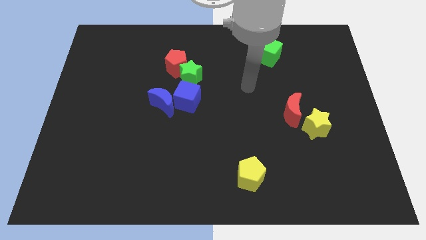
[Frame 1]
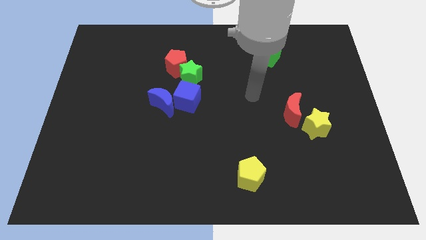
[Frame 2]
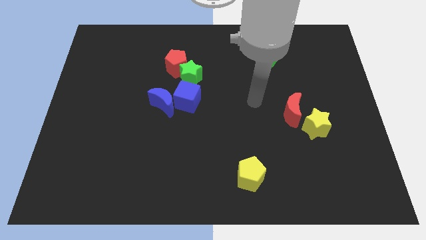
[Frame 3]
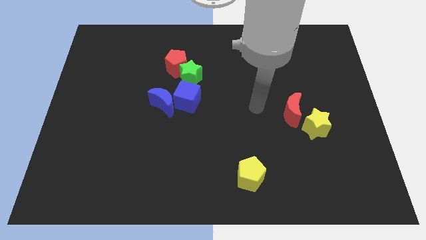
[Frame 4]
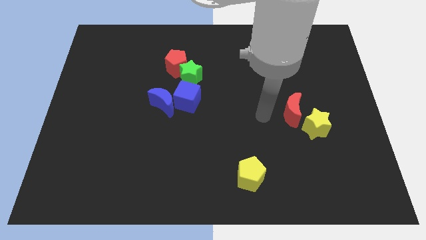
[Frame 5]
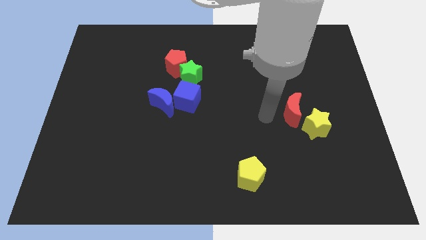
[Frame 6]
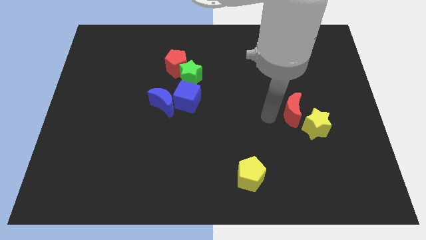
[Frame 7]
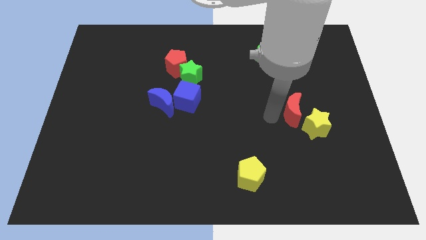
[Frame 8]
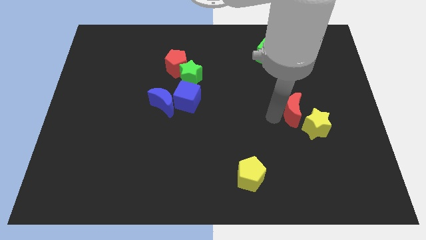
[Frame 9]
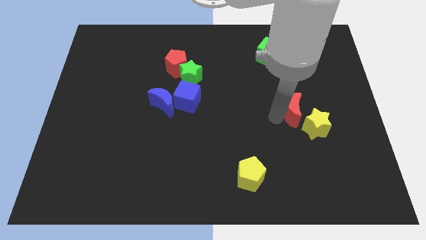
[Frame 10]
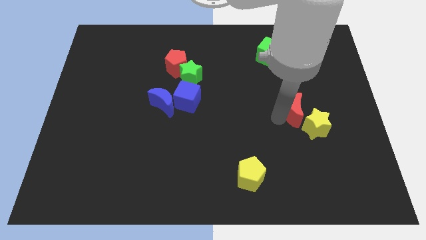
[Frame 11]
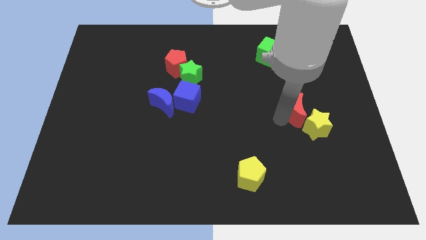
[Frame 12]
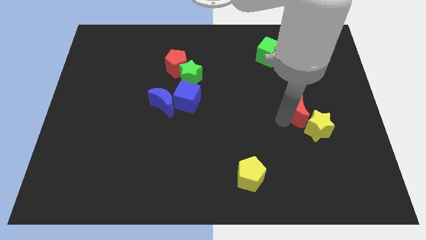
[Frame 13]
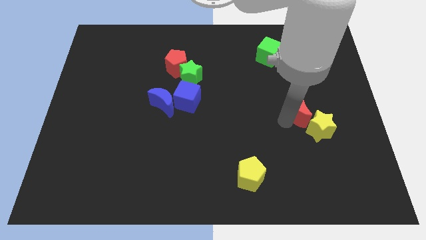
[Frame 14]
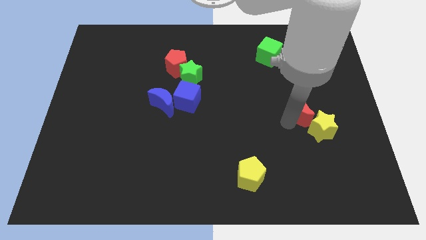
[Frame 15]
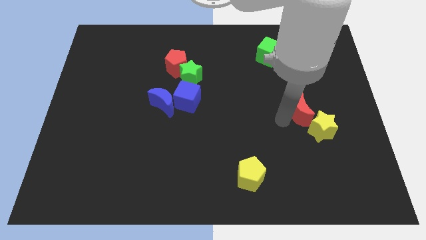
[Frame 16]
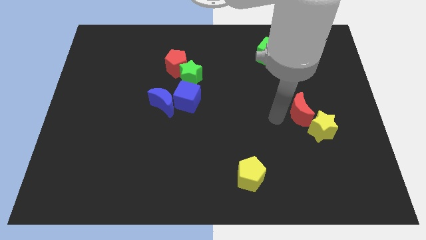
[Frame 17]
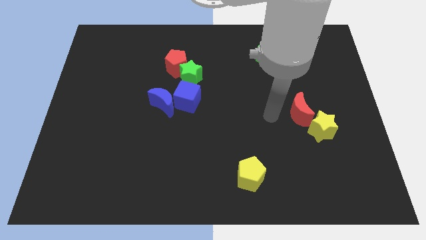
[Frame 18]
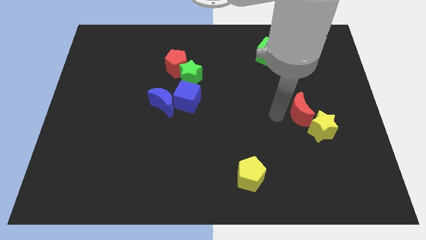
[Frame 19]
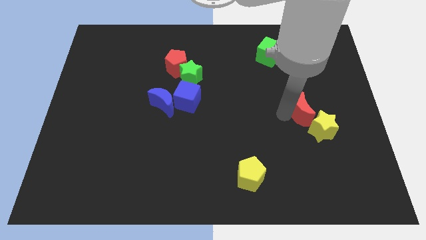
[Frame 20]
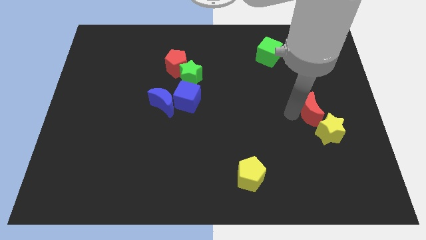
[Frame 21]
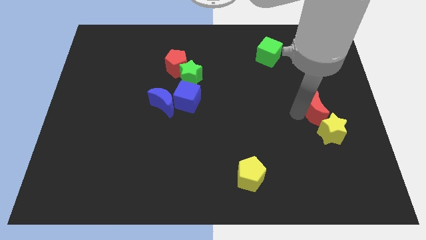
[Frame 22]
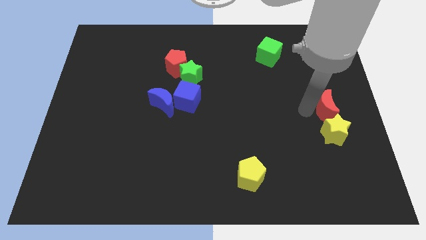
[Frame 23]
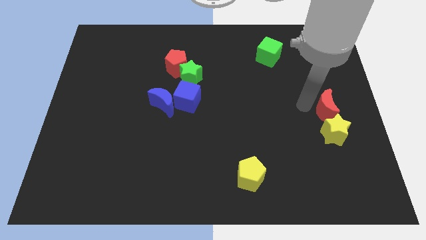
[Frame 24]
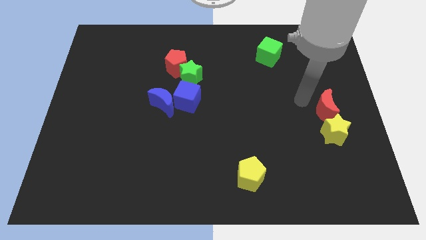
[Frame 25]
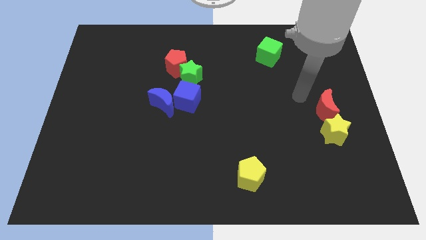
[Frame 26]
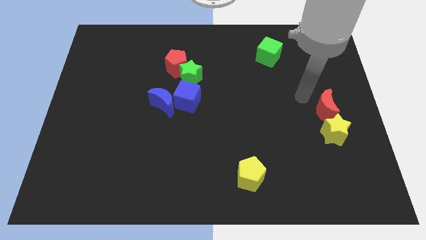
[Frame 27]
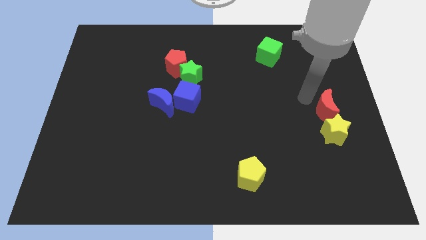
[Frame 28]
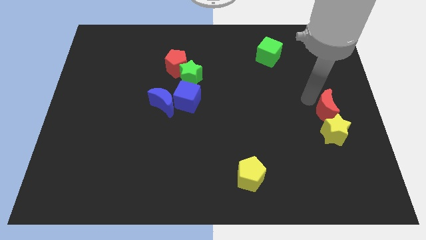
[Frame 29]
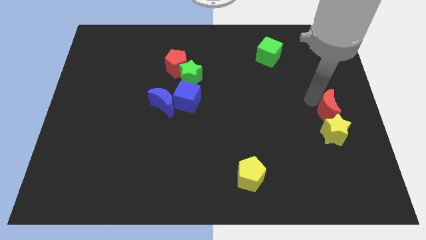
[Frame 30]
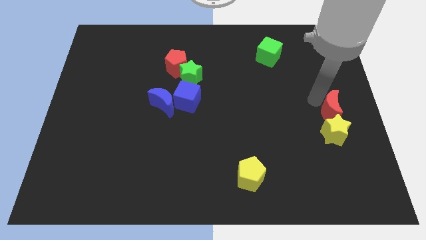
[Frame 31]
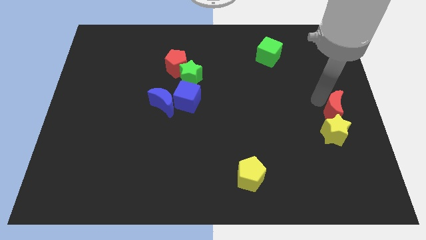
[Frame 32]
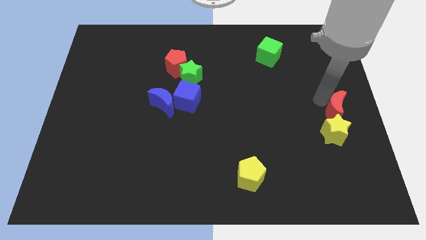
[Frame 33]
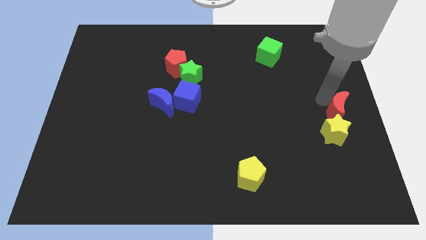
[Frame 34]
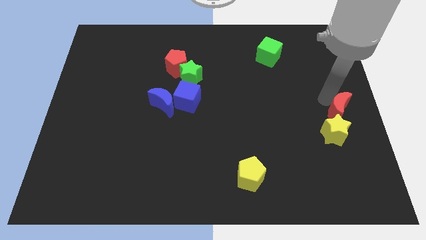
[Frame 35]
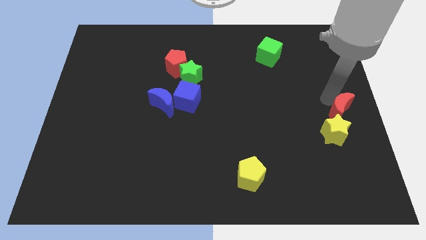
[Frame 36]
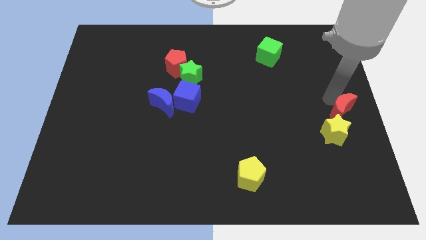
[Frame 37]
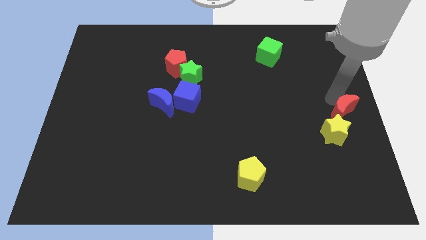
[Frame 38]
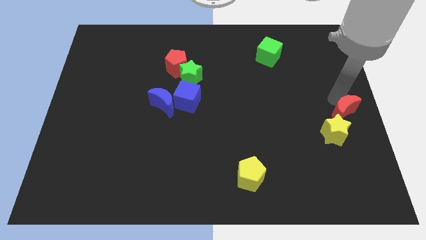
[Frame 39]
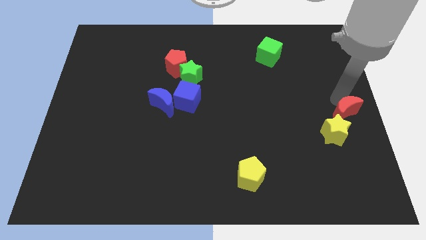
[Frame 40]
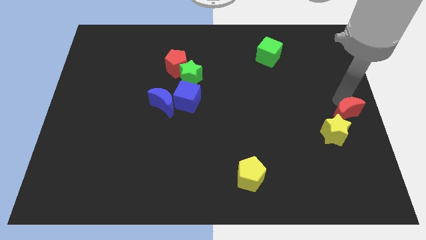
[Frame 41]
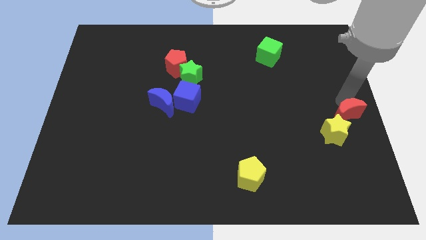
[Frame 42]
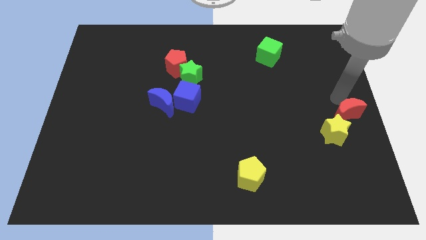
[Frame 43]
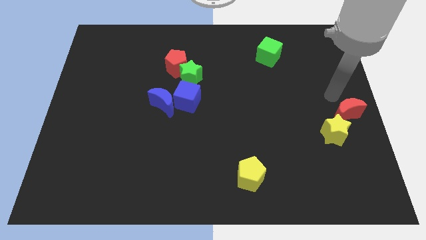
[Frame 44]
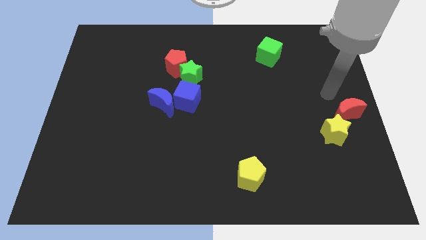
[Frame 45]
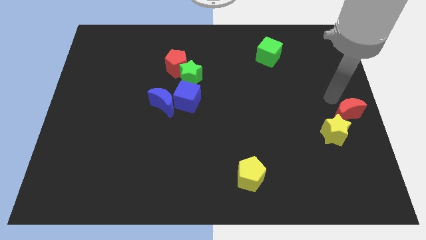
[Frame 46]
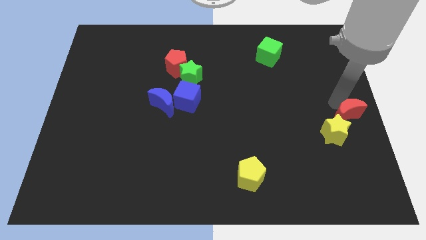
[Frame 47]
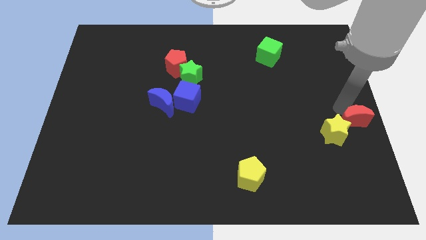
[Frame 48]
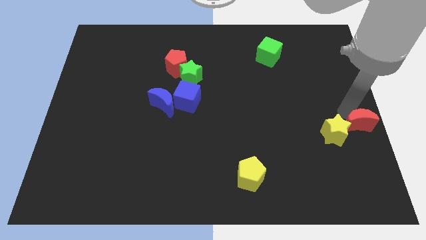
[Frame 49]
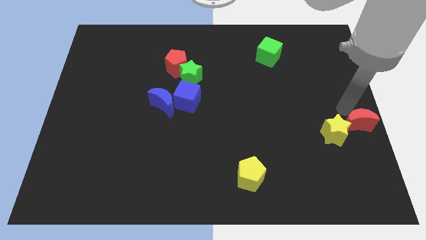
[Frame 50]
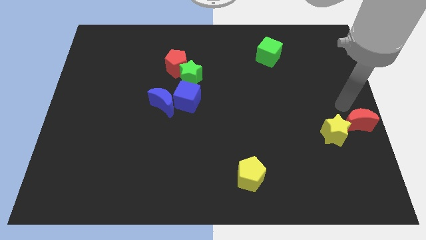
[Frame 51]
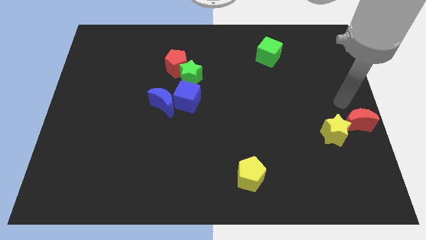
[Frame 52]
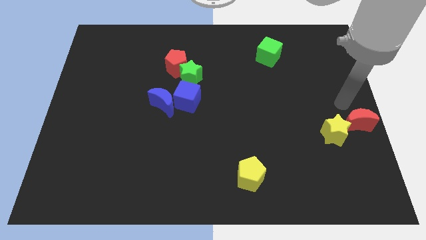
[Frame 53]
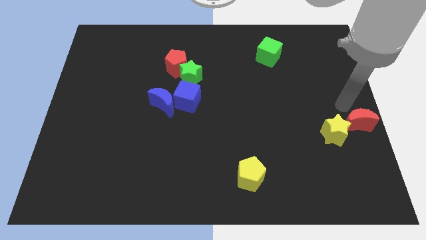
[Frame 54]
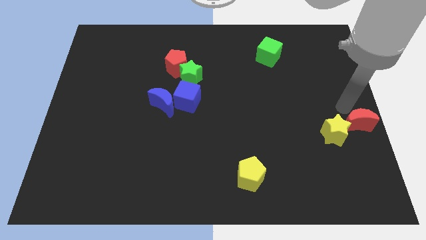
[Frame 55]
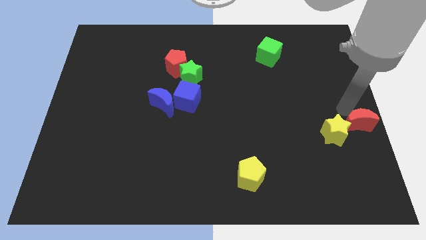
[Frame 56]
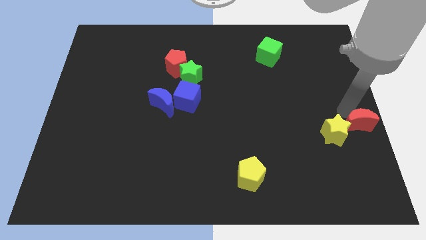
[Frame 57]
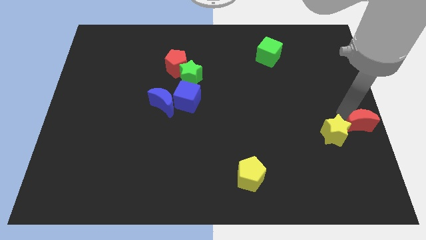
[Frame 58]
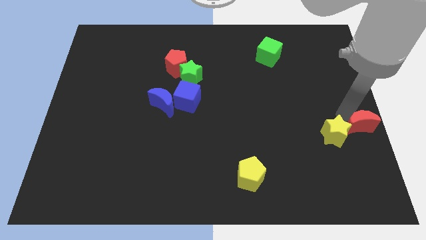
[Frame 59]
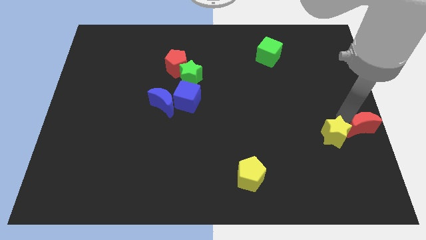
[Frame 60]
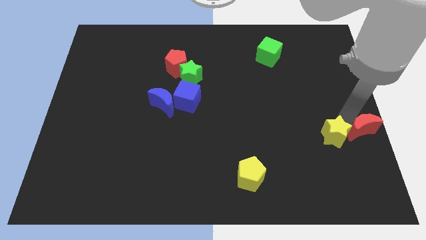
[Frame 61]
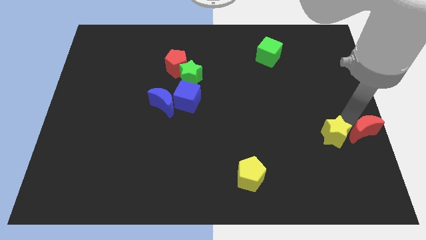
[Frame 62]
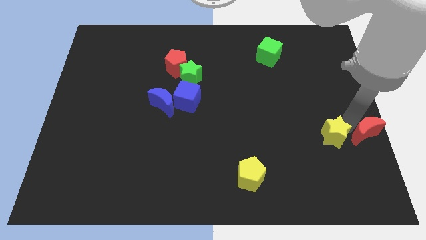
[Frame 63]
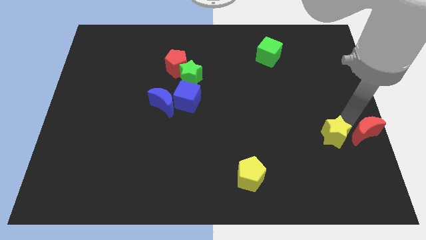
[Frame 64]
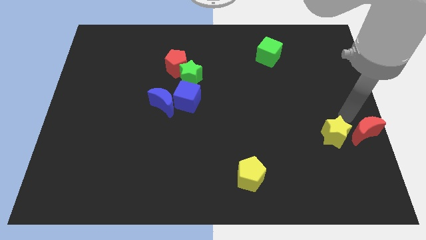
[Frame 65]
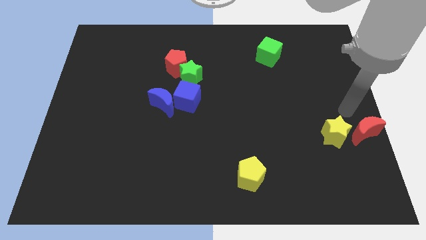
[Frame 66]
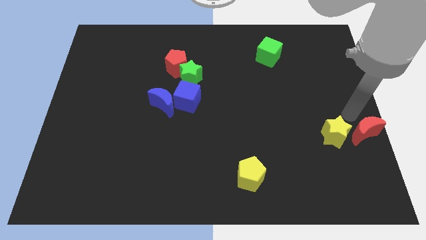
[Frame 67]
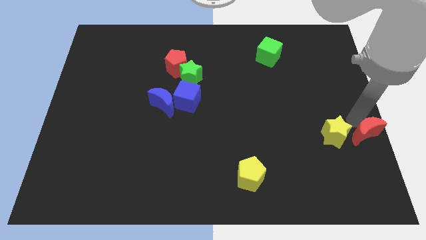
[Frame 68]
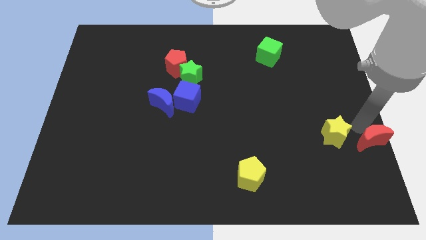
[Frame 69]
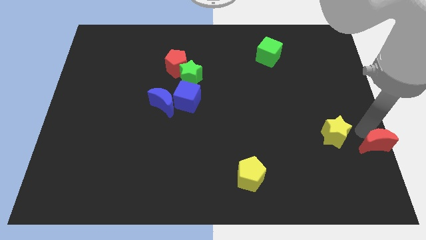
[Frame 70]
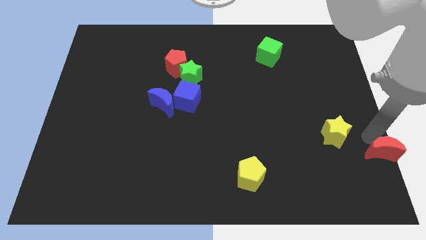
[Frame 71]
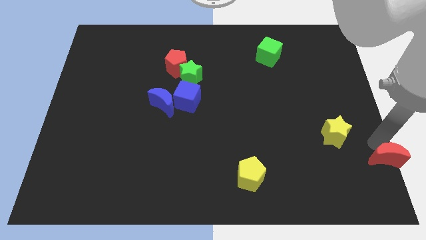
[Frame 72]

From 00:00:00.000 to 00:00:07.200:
put the red moon to the lower right corner

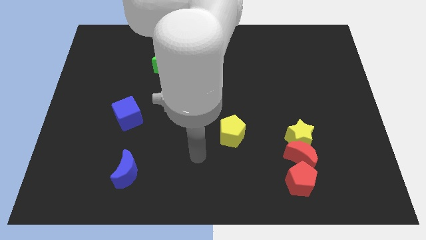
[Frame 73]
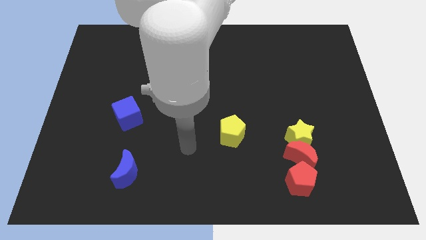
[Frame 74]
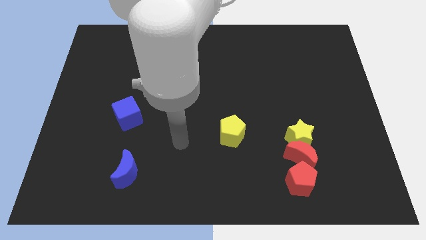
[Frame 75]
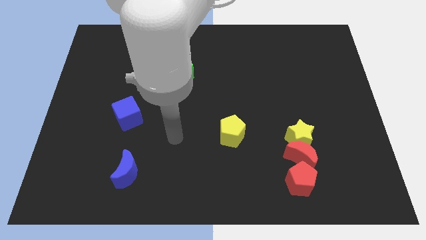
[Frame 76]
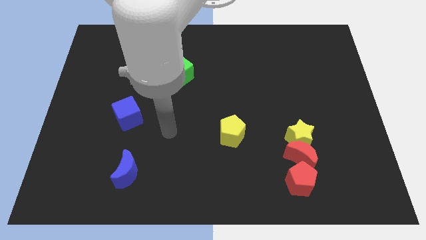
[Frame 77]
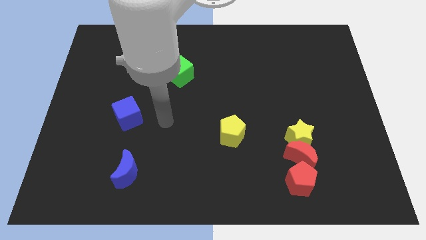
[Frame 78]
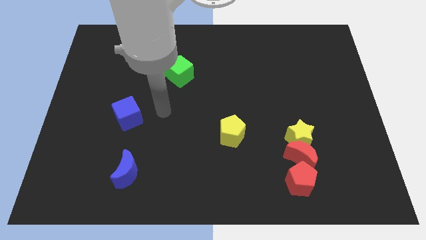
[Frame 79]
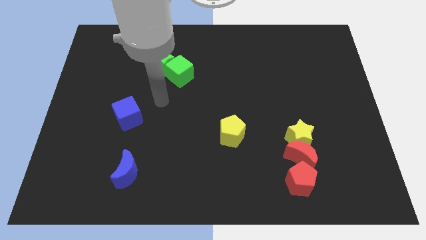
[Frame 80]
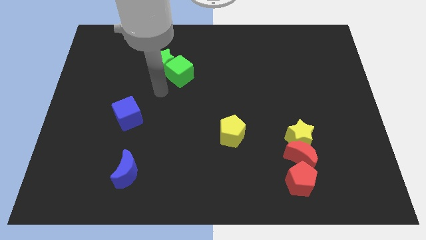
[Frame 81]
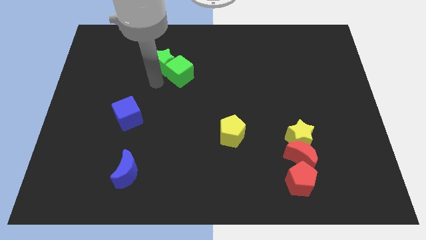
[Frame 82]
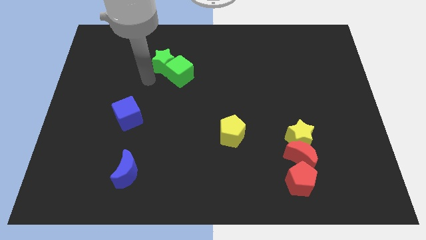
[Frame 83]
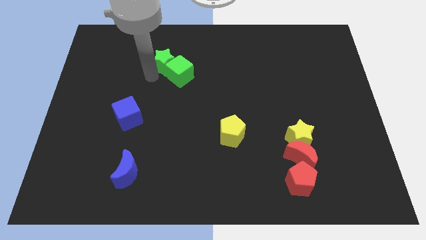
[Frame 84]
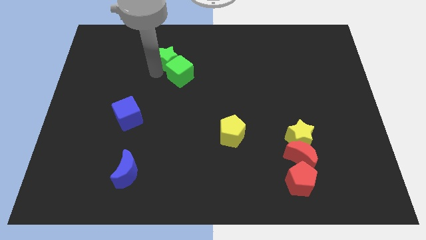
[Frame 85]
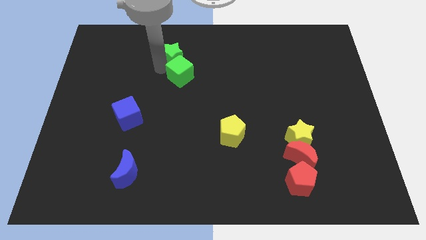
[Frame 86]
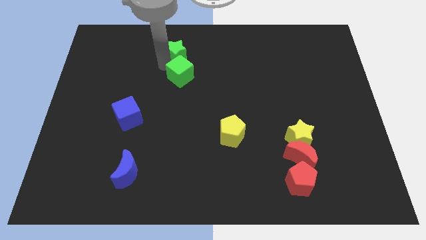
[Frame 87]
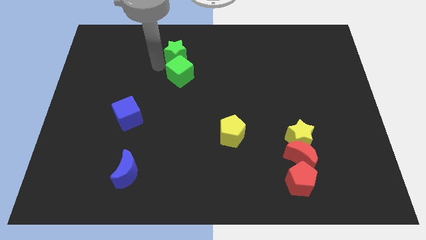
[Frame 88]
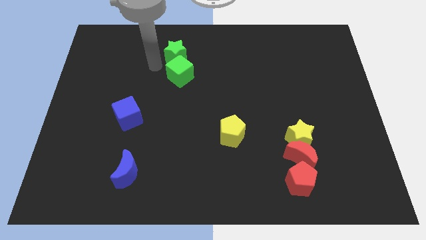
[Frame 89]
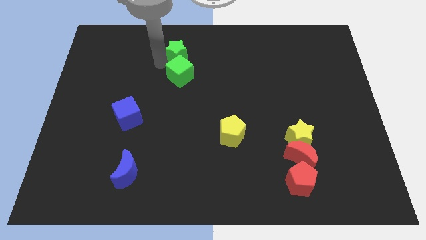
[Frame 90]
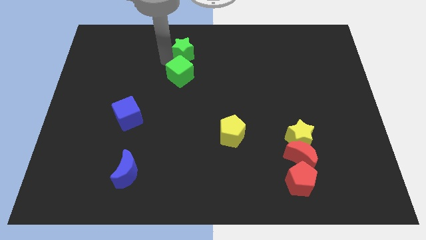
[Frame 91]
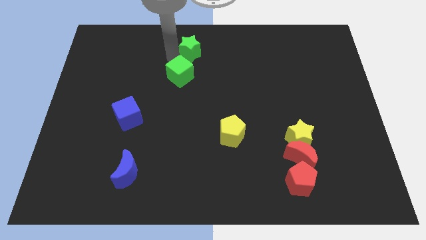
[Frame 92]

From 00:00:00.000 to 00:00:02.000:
put the green star to the towards your base
